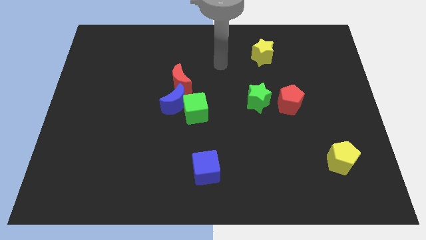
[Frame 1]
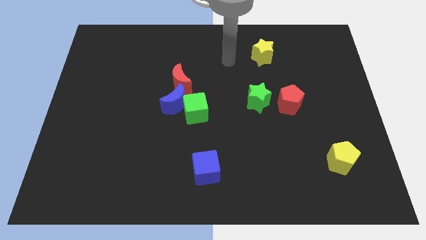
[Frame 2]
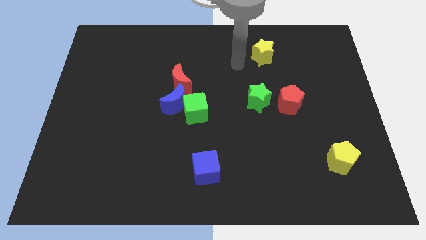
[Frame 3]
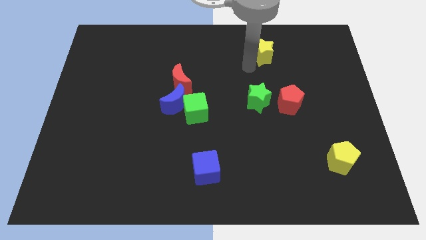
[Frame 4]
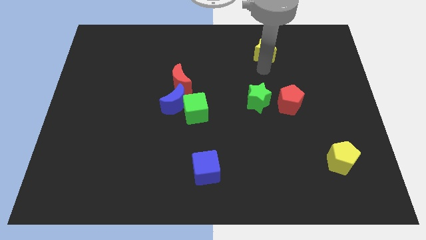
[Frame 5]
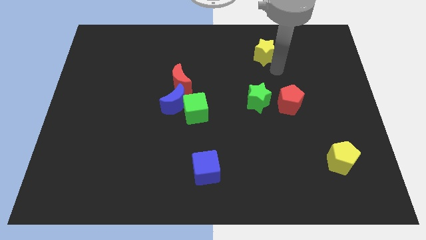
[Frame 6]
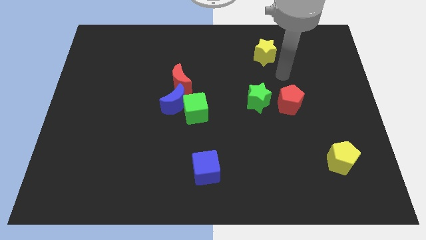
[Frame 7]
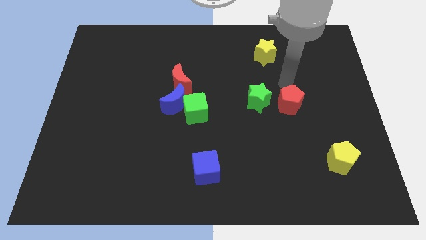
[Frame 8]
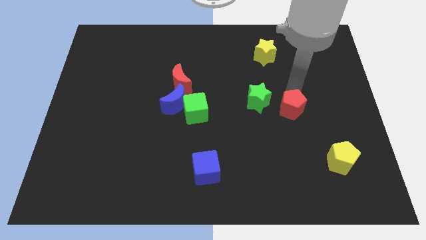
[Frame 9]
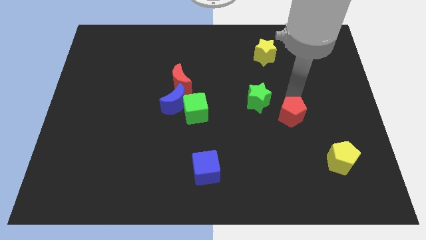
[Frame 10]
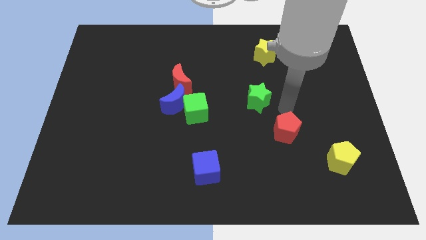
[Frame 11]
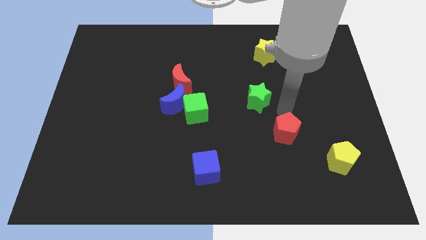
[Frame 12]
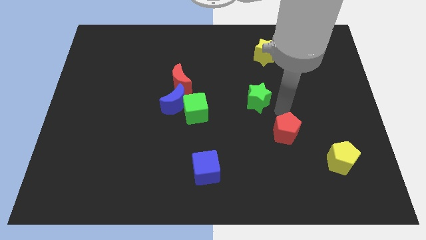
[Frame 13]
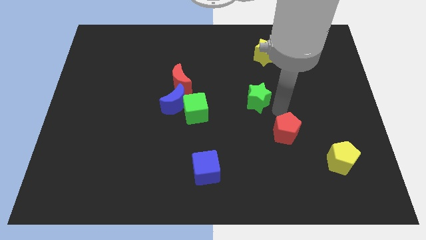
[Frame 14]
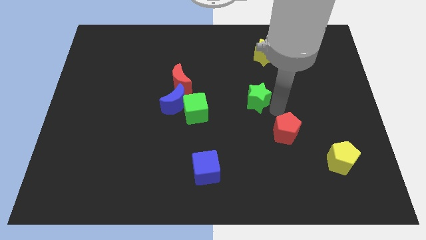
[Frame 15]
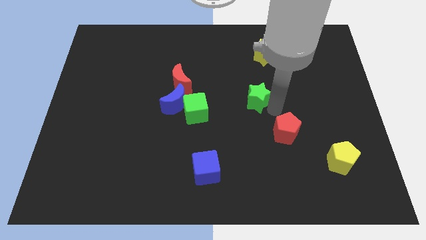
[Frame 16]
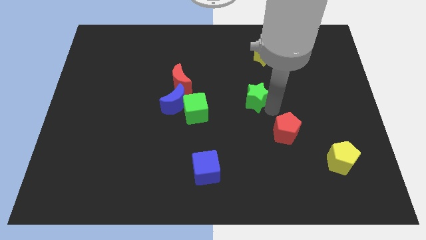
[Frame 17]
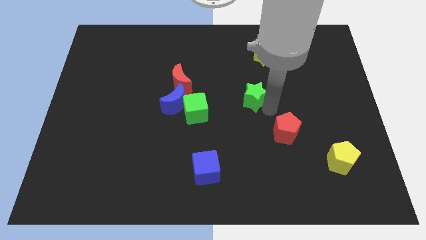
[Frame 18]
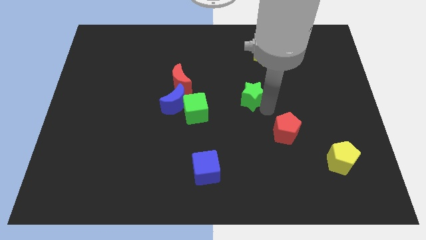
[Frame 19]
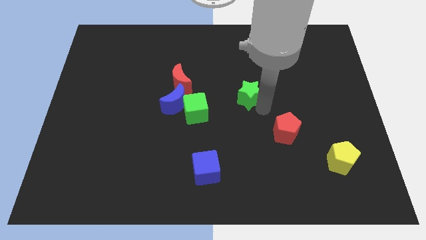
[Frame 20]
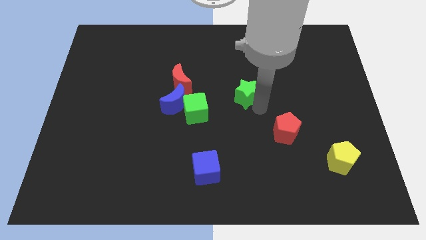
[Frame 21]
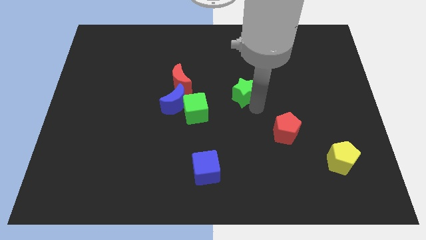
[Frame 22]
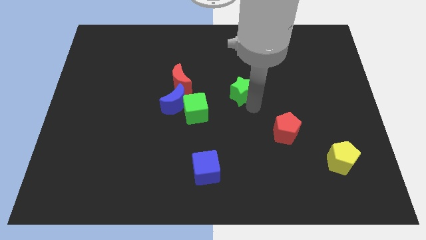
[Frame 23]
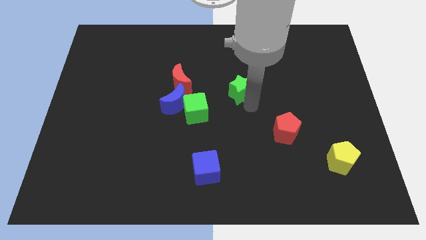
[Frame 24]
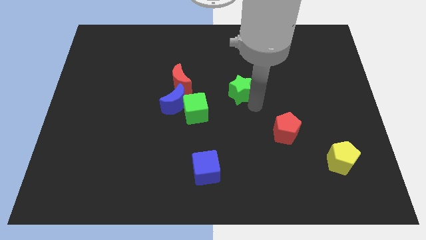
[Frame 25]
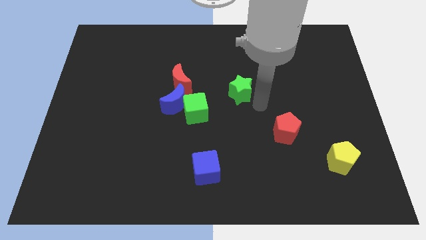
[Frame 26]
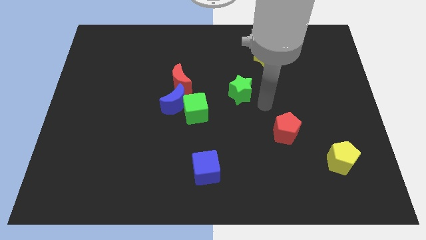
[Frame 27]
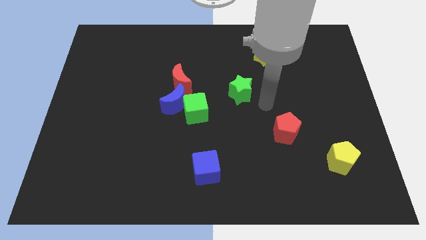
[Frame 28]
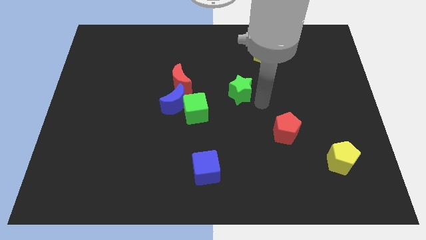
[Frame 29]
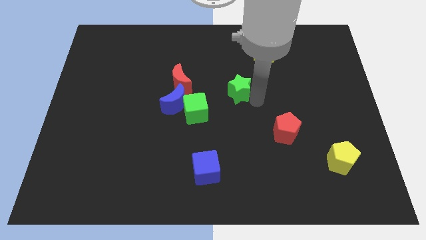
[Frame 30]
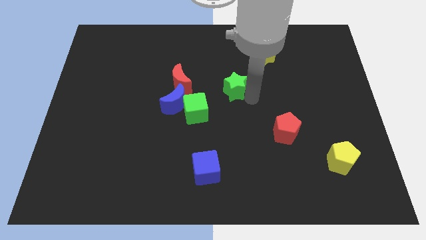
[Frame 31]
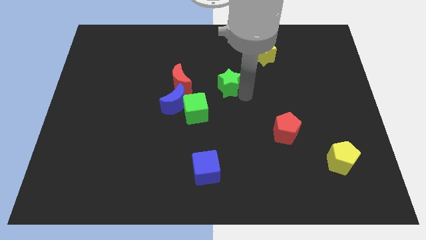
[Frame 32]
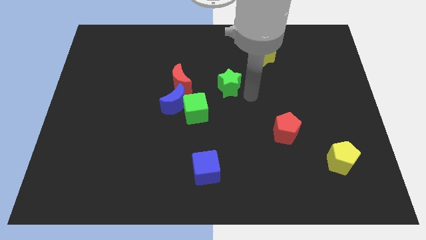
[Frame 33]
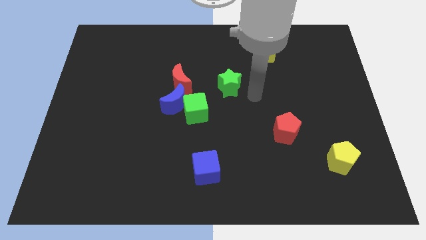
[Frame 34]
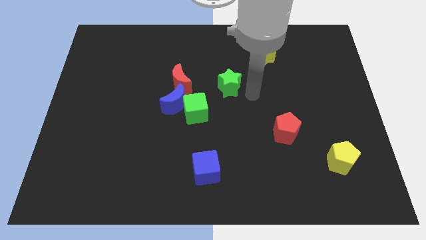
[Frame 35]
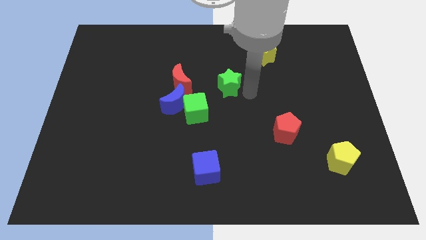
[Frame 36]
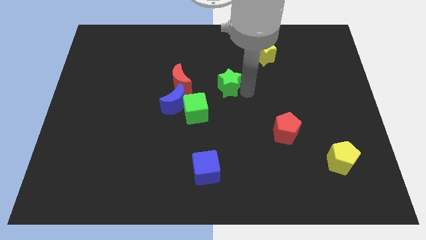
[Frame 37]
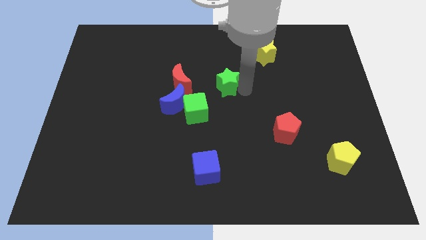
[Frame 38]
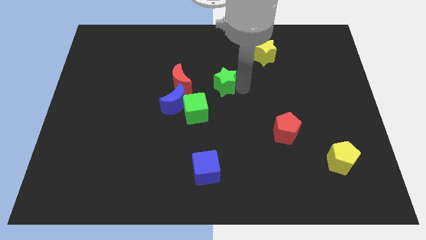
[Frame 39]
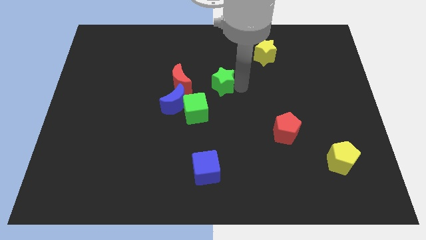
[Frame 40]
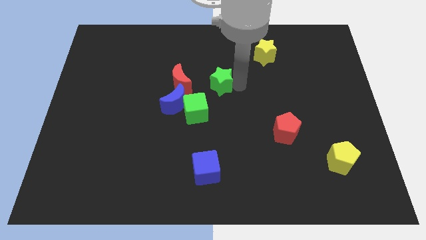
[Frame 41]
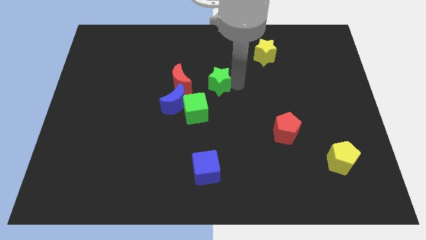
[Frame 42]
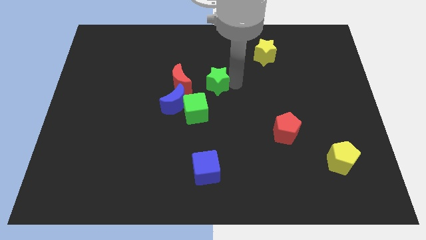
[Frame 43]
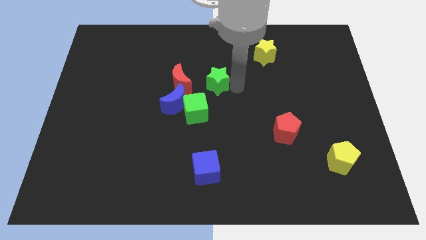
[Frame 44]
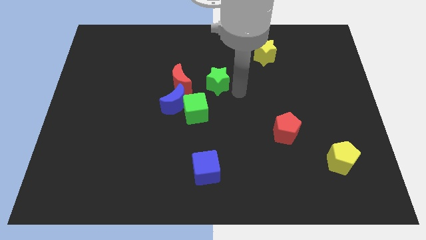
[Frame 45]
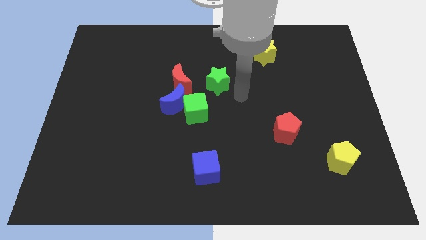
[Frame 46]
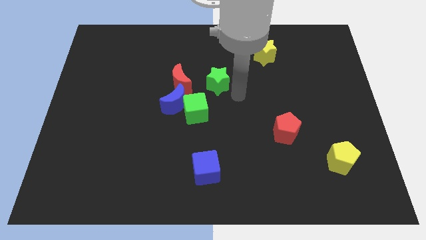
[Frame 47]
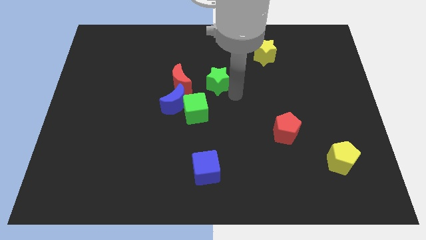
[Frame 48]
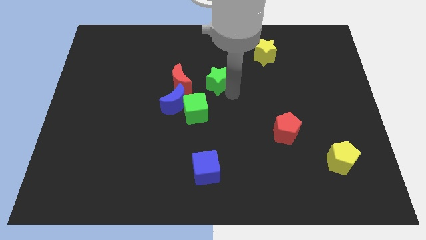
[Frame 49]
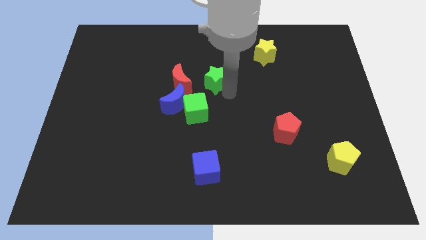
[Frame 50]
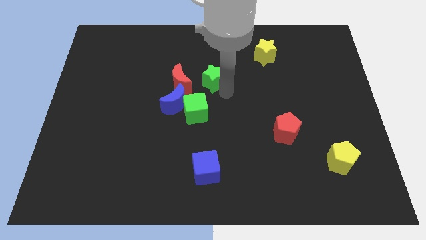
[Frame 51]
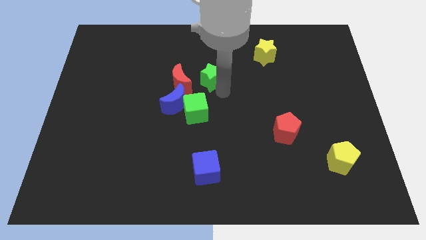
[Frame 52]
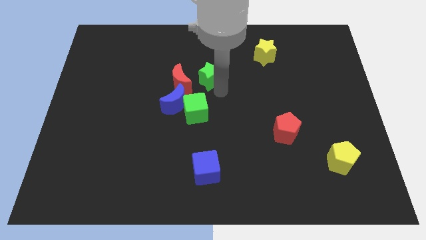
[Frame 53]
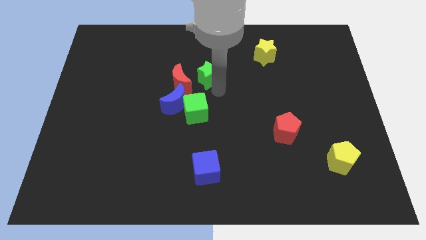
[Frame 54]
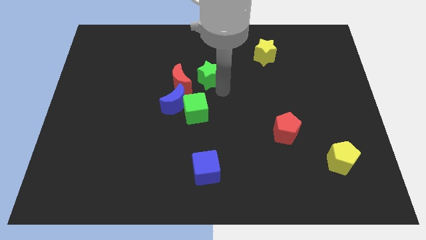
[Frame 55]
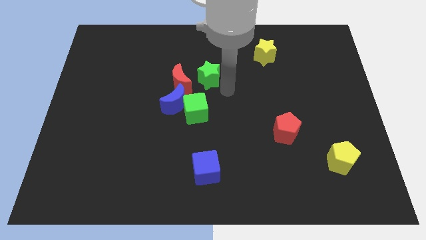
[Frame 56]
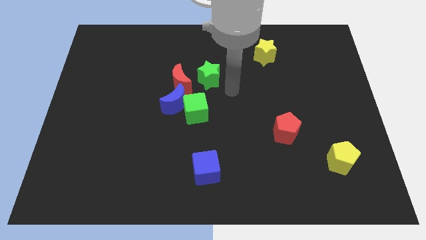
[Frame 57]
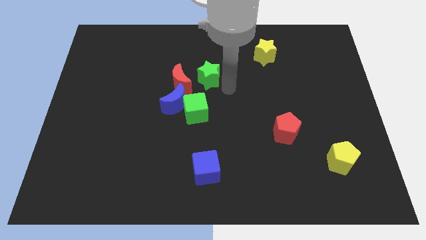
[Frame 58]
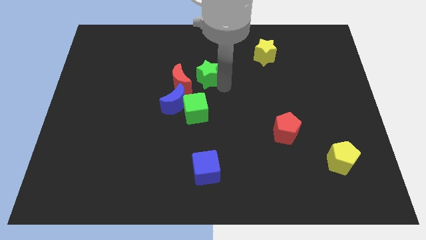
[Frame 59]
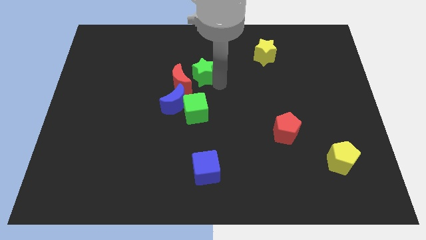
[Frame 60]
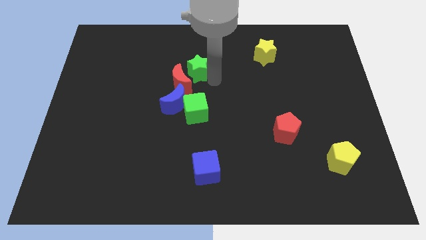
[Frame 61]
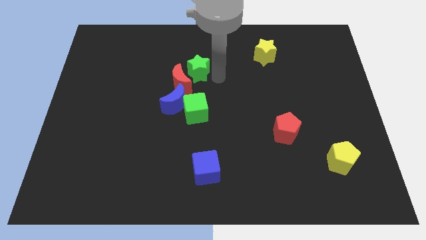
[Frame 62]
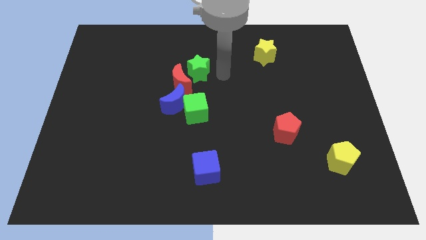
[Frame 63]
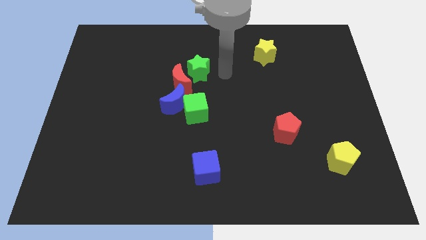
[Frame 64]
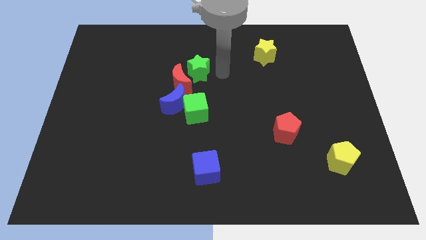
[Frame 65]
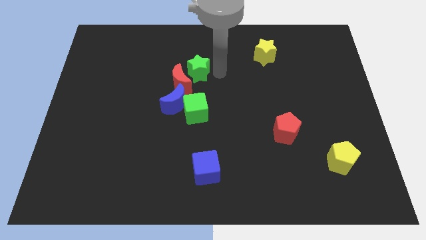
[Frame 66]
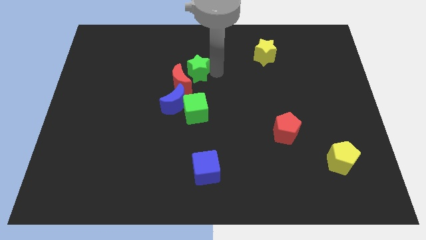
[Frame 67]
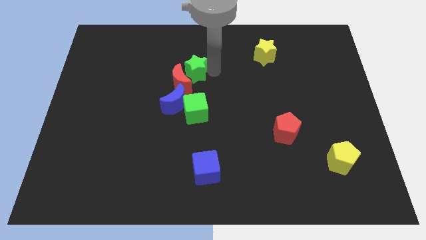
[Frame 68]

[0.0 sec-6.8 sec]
push the green star to the top of the blue moon

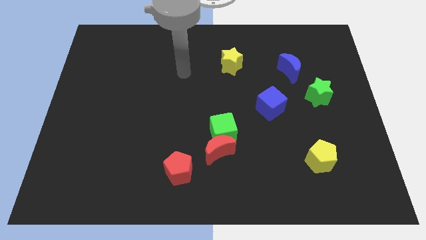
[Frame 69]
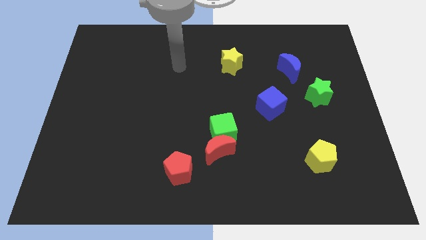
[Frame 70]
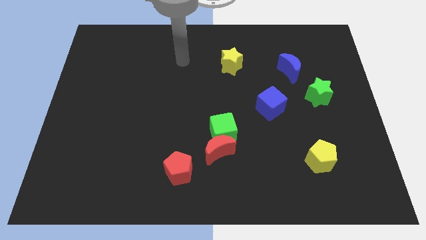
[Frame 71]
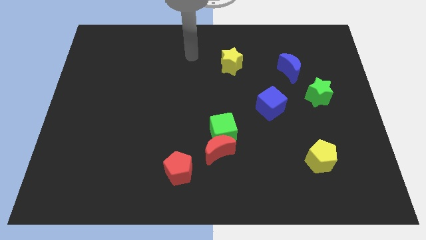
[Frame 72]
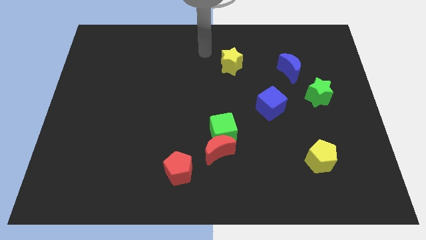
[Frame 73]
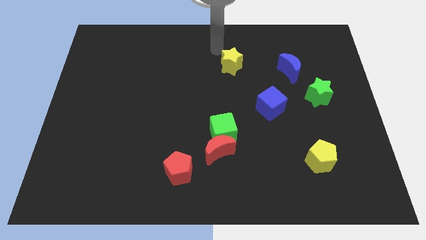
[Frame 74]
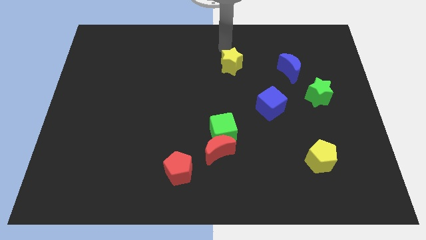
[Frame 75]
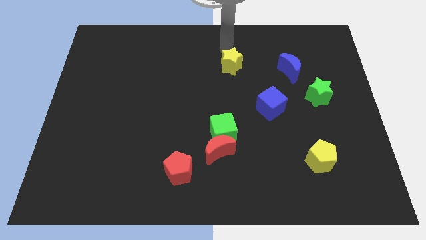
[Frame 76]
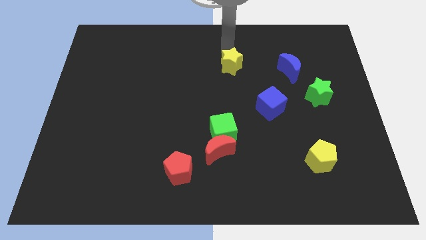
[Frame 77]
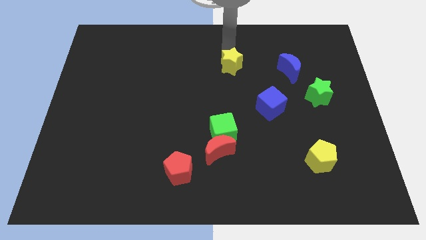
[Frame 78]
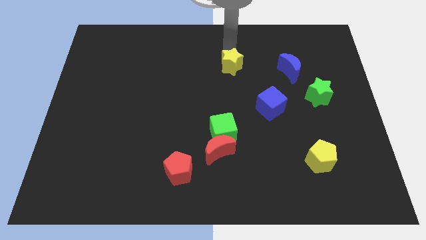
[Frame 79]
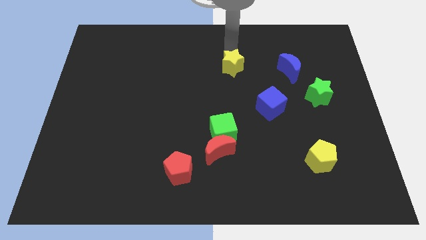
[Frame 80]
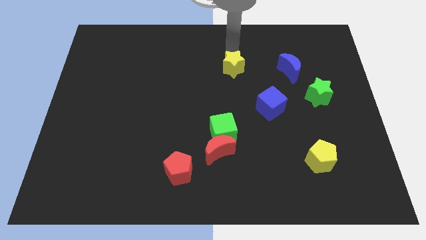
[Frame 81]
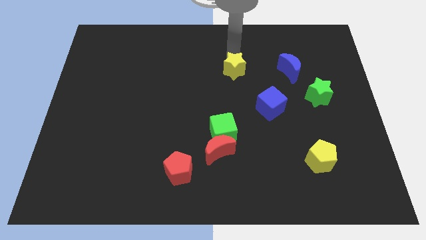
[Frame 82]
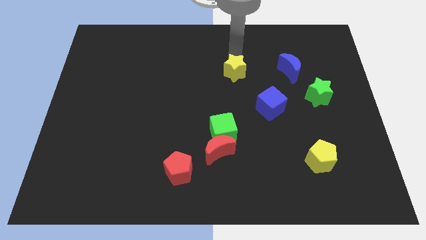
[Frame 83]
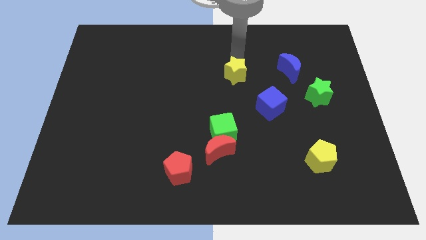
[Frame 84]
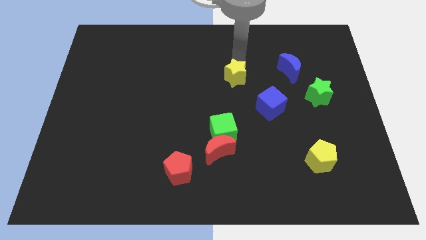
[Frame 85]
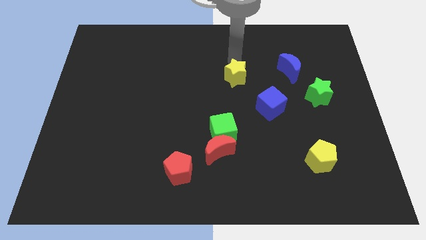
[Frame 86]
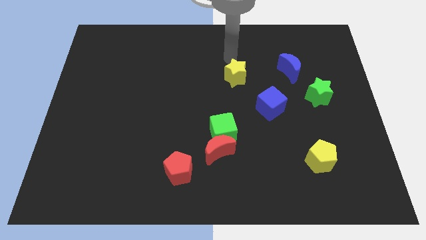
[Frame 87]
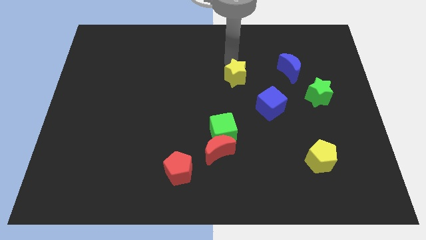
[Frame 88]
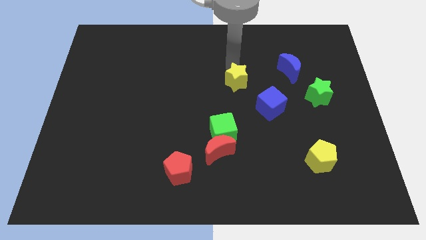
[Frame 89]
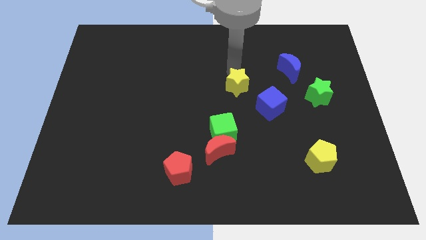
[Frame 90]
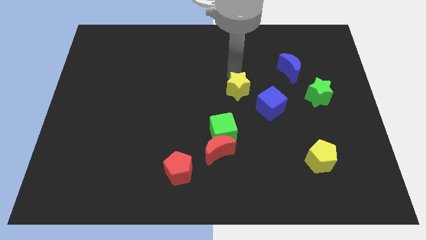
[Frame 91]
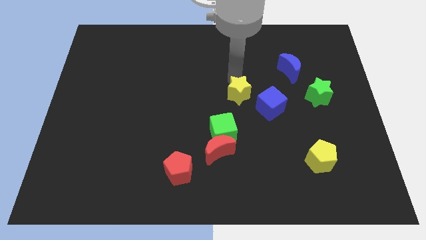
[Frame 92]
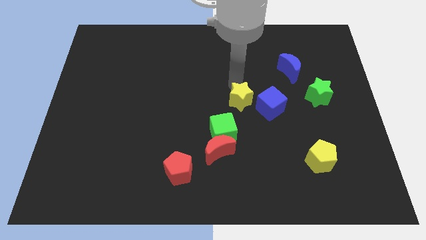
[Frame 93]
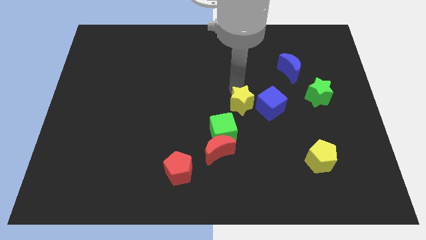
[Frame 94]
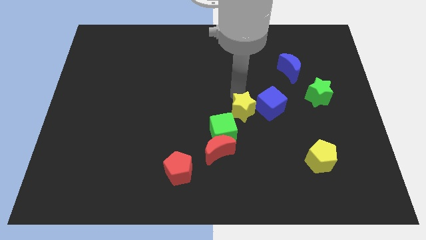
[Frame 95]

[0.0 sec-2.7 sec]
slide the yellow star to the bottom left of the blue cube
